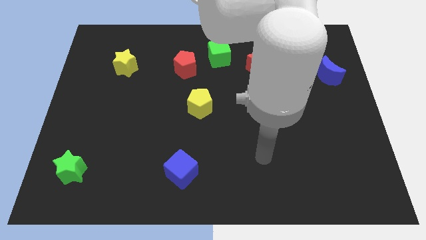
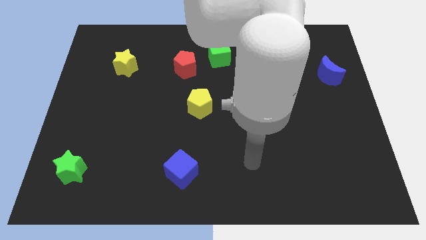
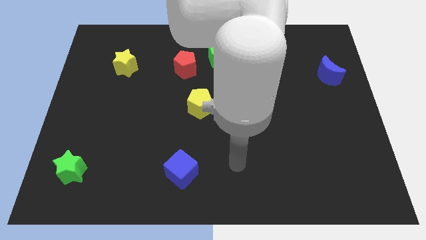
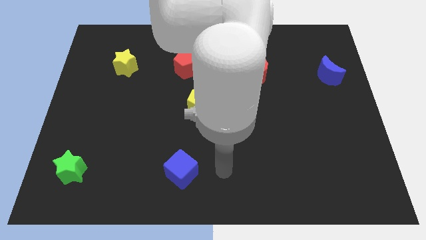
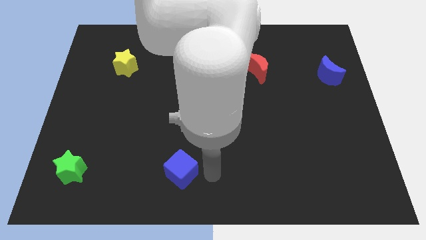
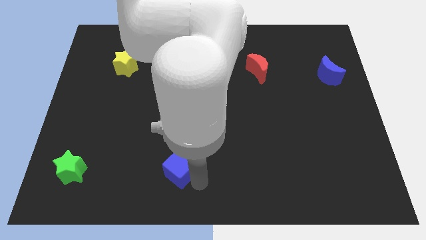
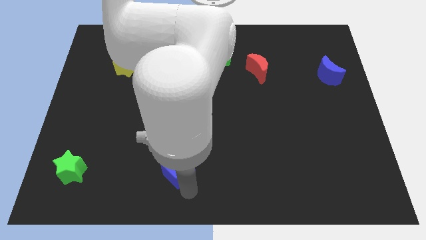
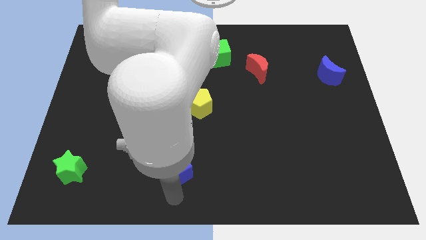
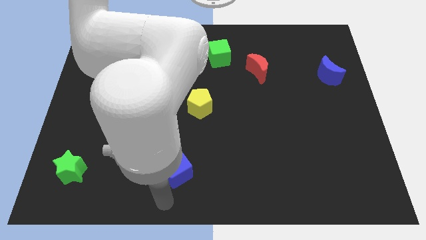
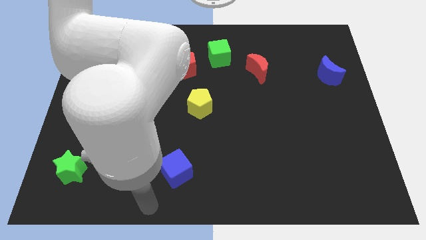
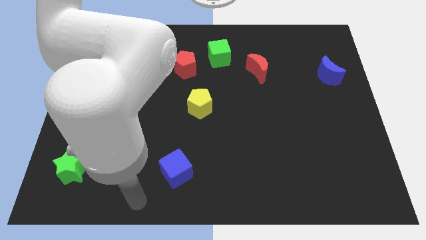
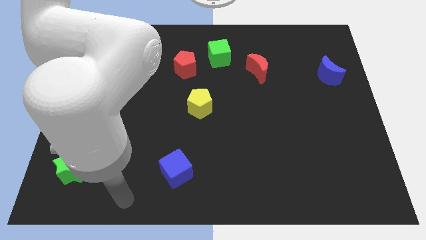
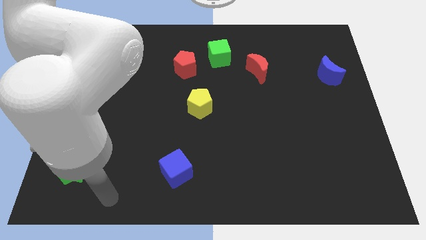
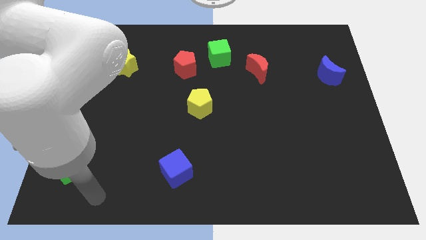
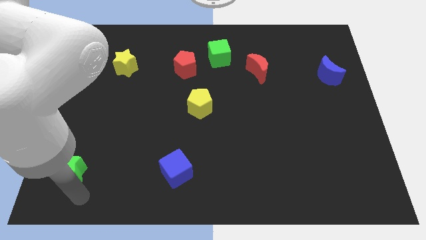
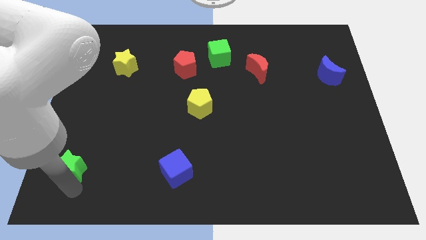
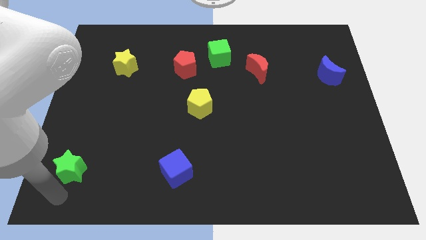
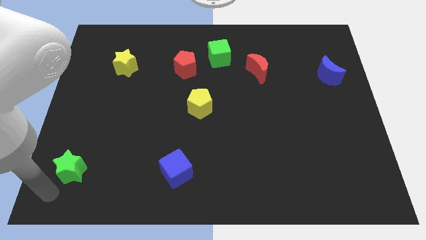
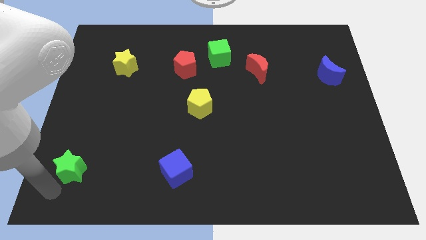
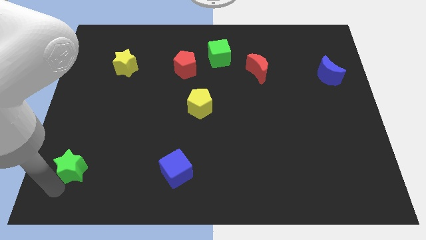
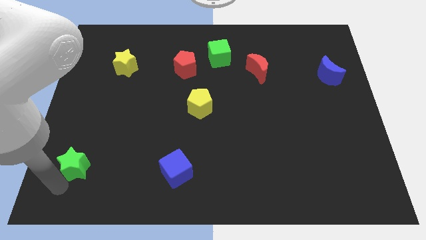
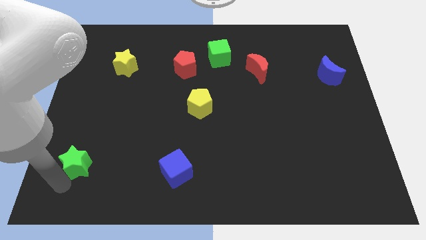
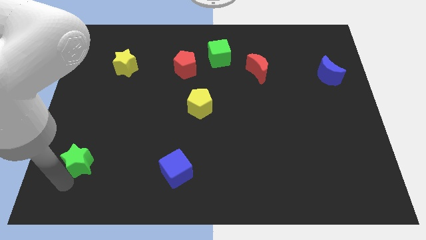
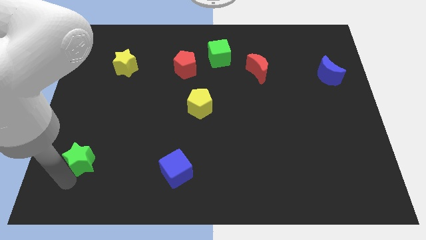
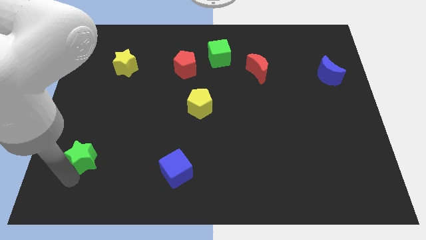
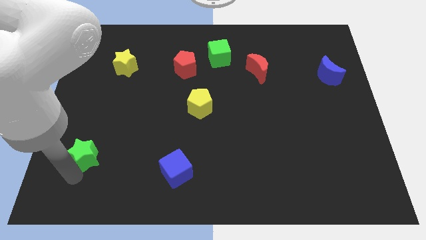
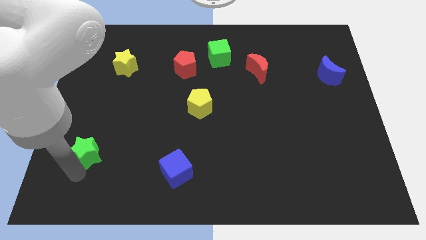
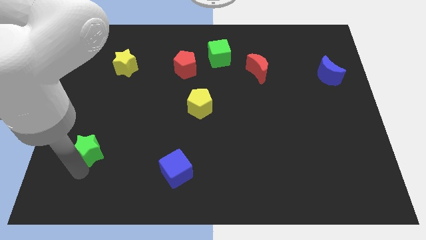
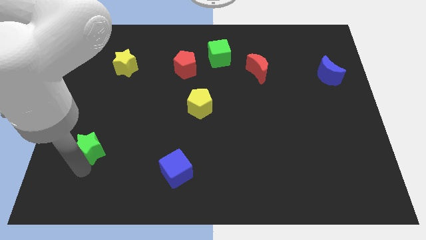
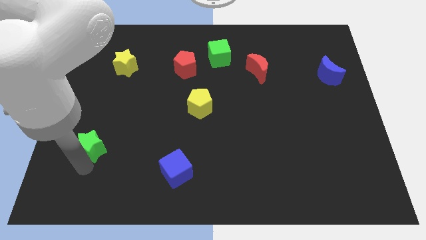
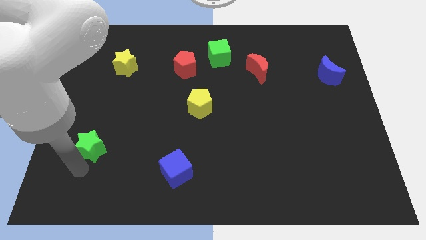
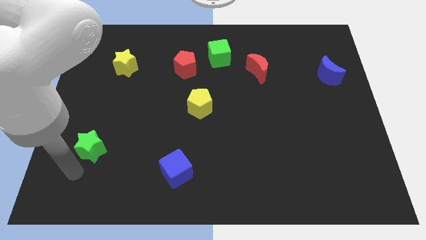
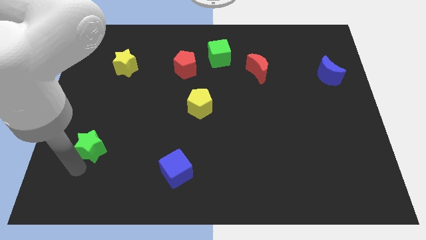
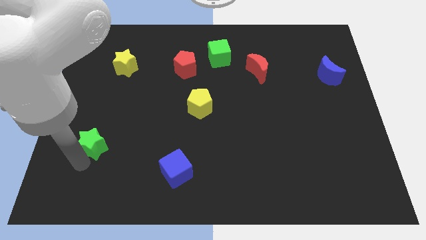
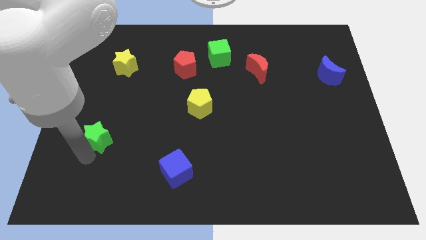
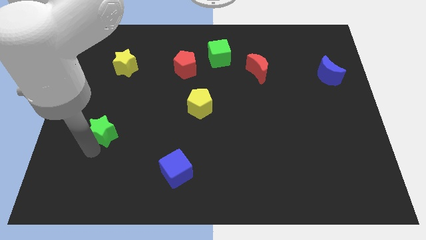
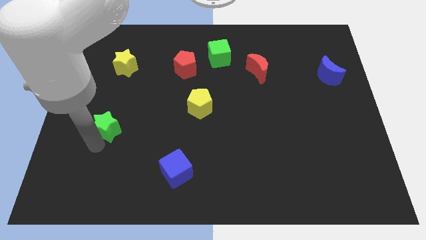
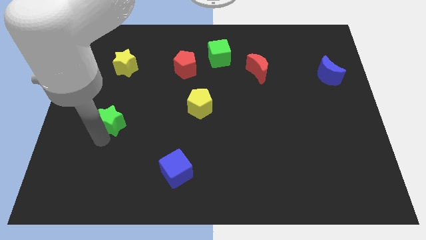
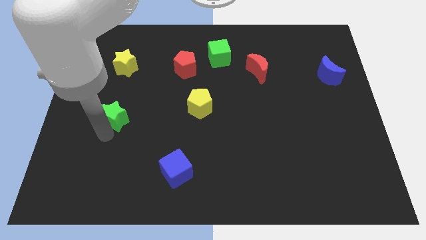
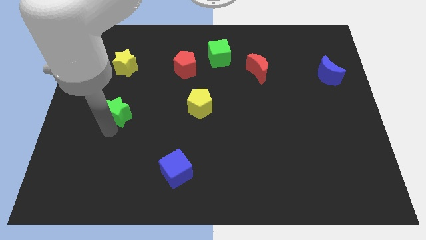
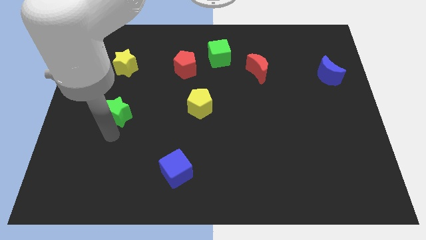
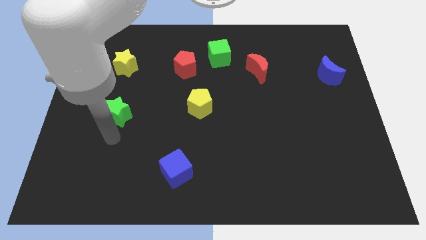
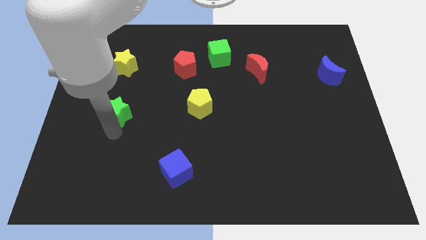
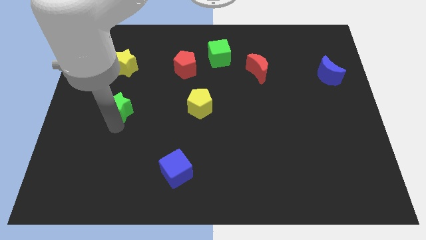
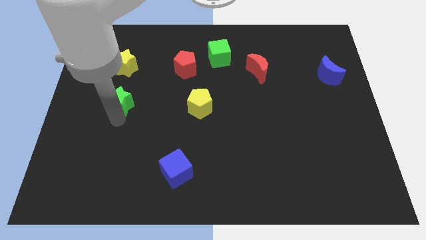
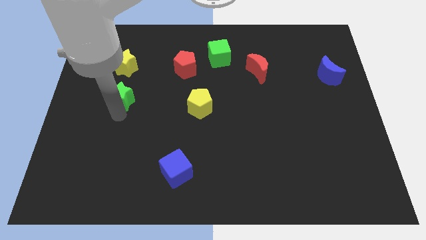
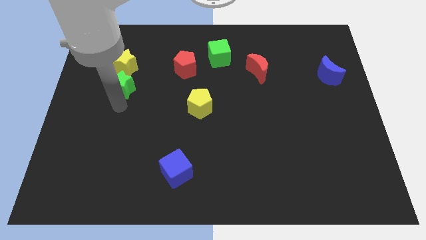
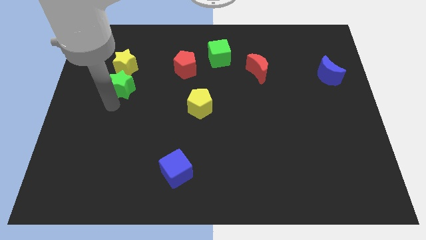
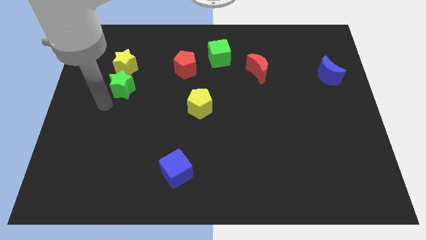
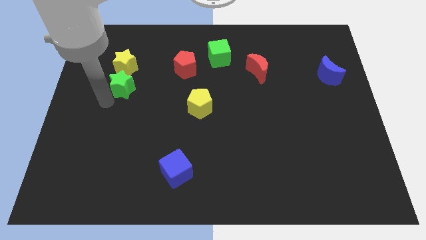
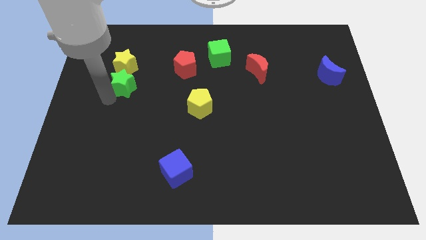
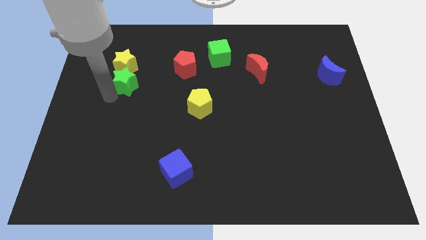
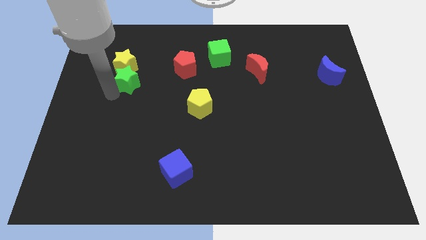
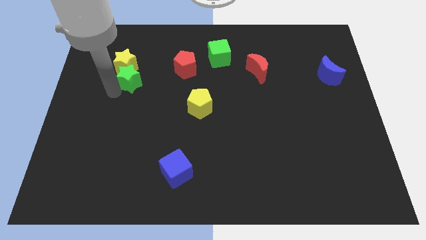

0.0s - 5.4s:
push the green star just left of the red pentagon

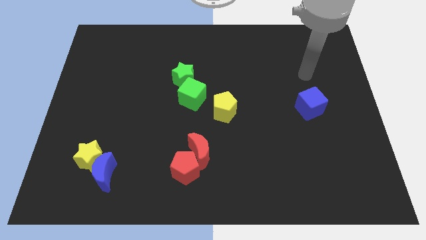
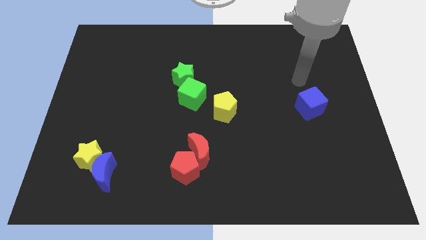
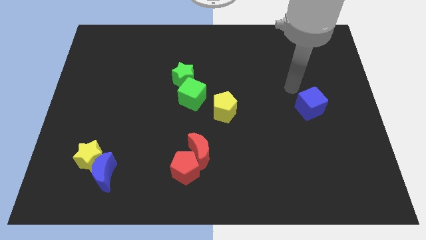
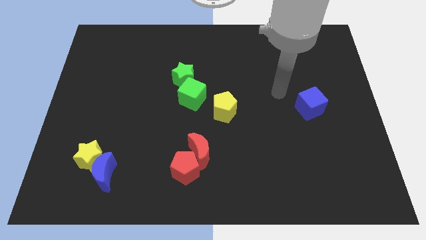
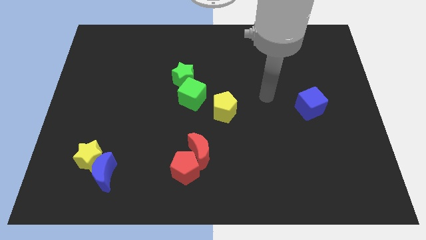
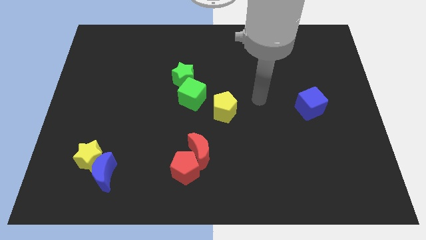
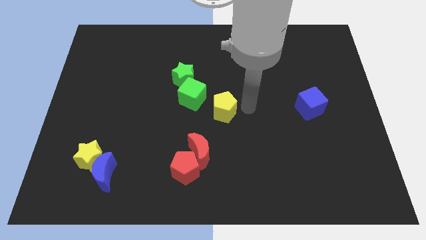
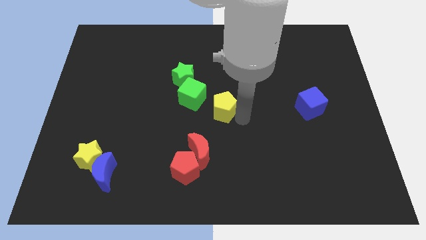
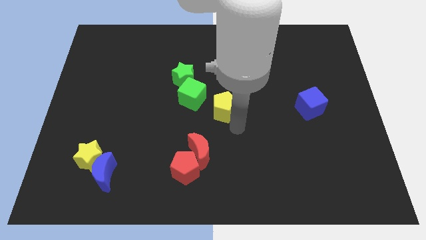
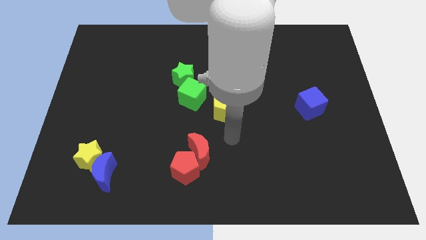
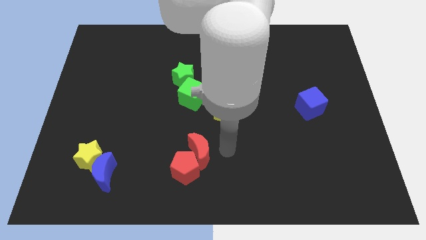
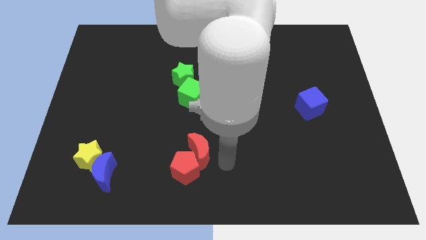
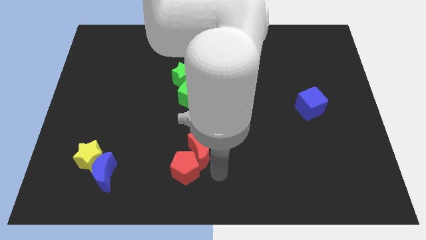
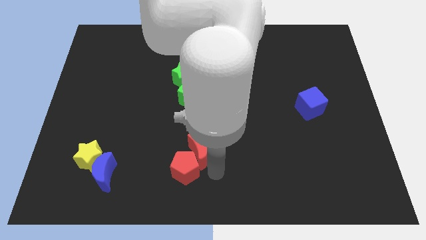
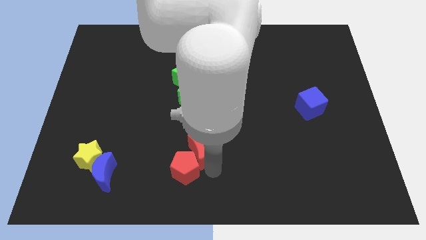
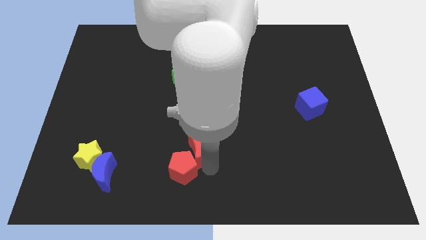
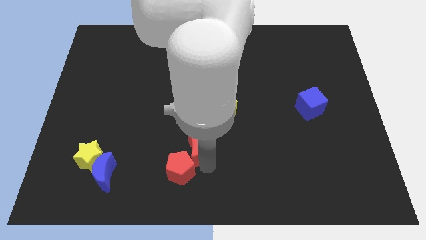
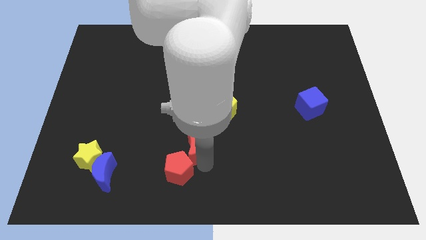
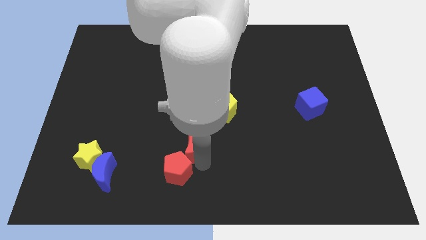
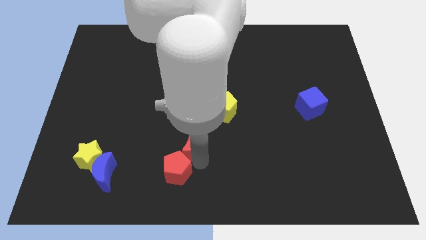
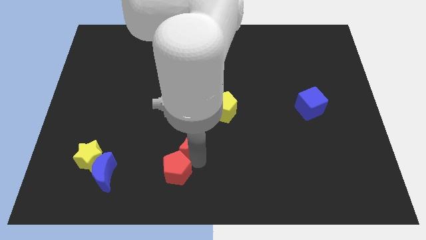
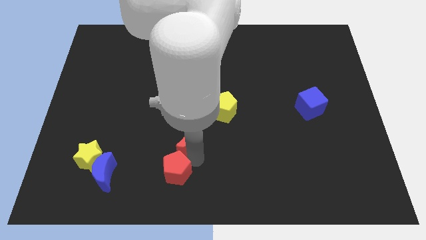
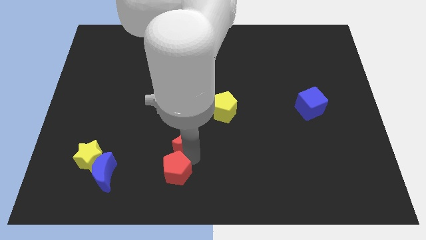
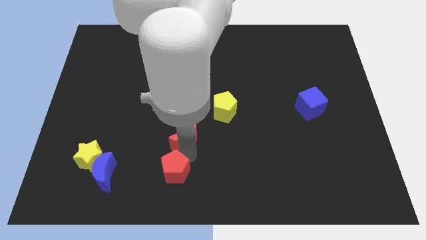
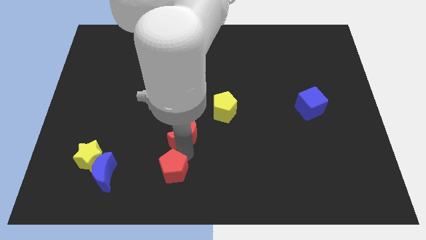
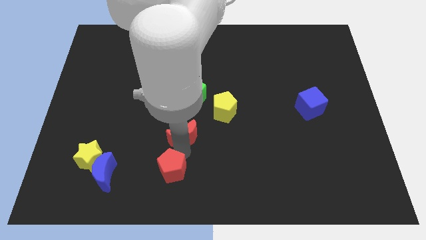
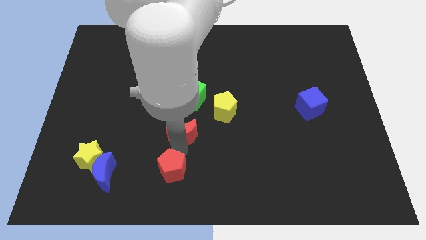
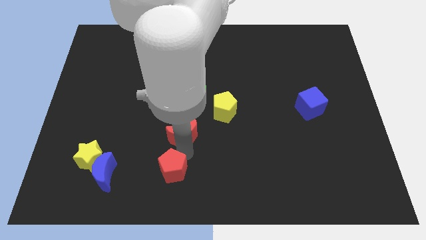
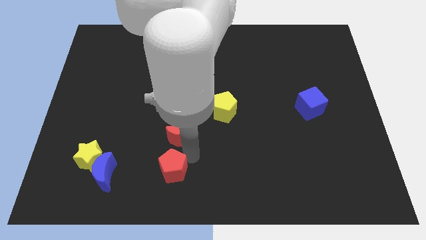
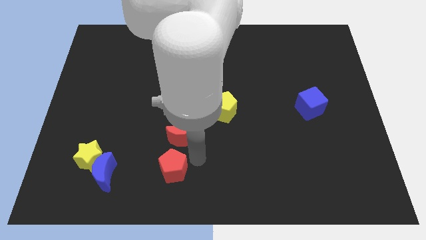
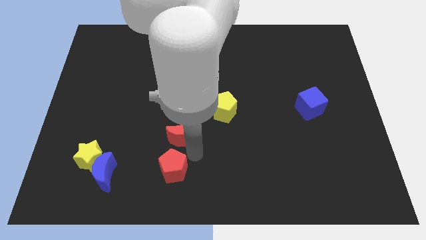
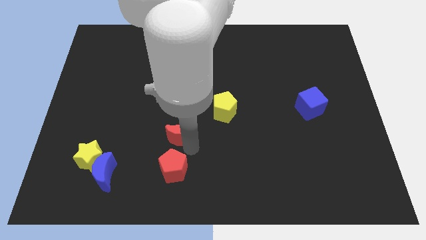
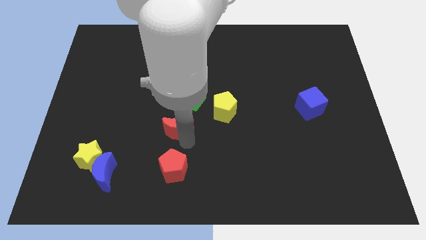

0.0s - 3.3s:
slide the red moon diagonally down and to the left of the green cube
